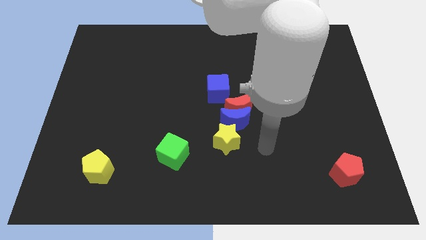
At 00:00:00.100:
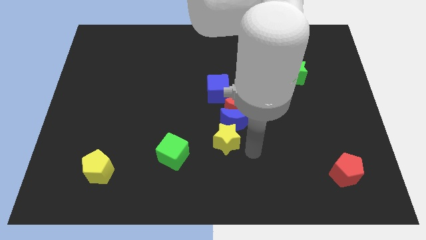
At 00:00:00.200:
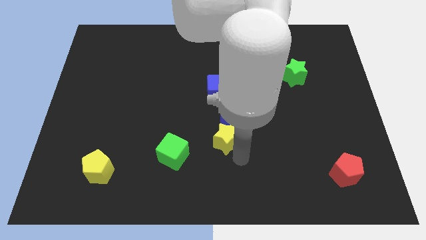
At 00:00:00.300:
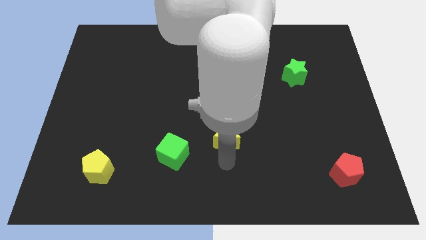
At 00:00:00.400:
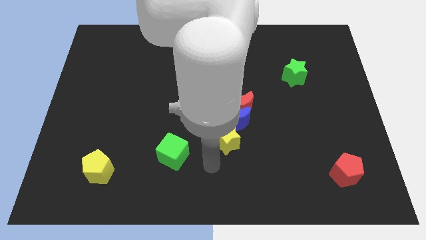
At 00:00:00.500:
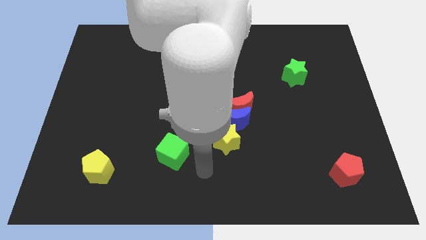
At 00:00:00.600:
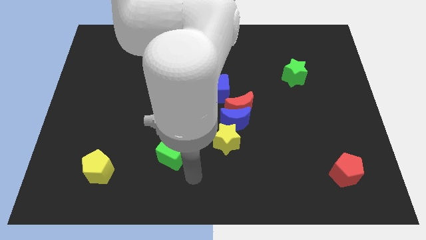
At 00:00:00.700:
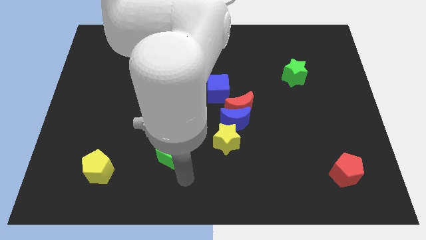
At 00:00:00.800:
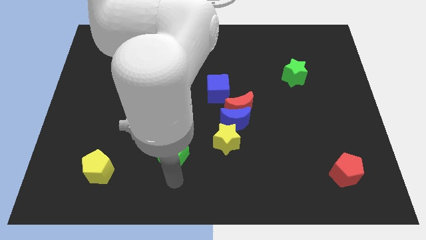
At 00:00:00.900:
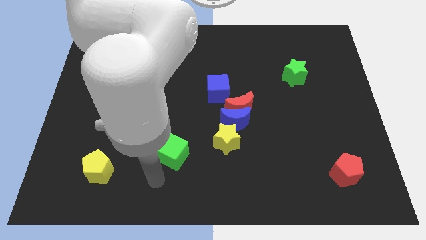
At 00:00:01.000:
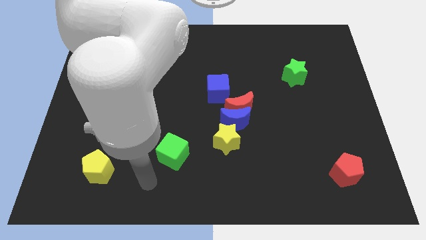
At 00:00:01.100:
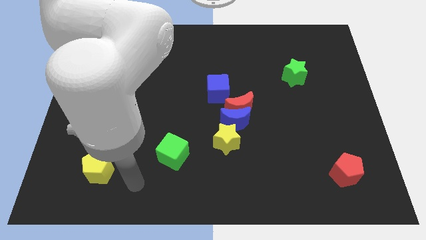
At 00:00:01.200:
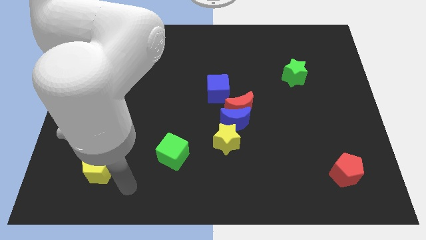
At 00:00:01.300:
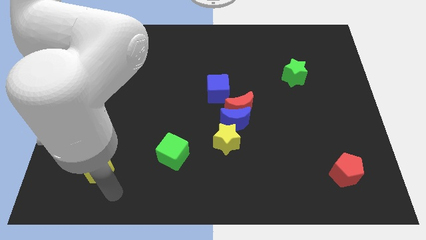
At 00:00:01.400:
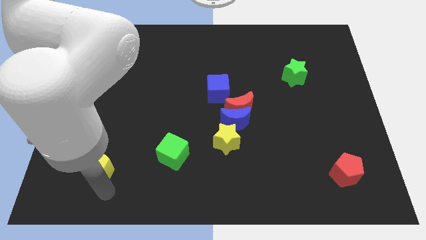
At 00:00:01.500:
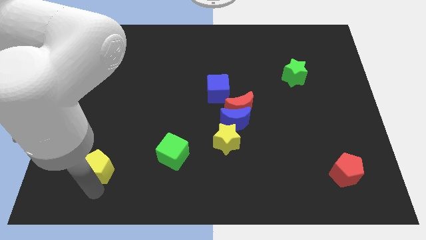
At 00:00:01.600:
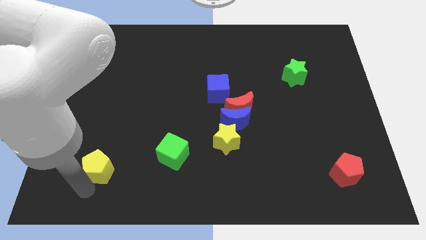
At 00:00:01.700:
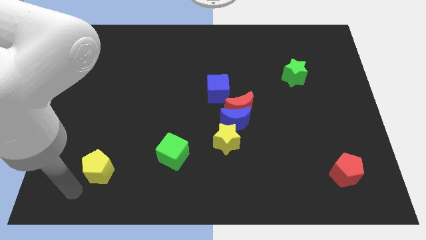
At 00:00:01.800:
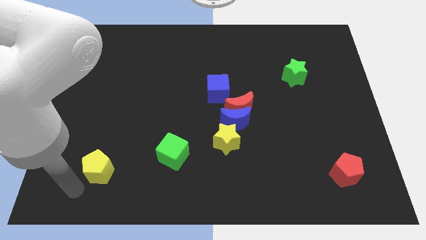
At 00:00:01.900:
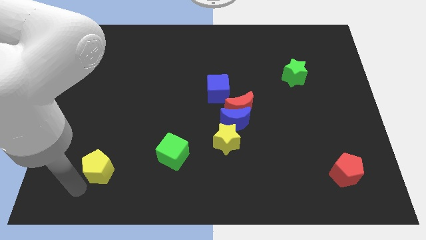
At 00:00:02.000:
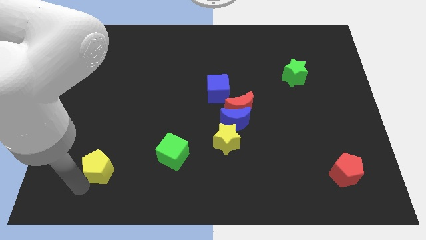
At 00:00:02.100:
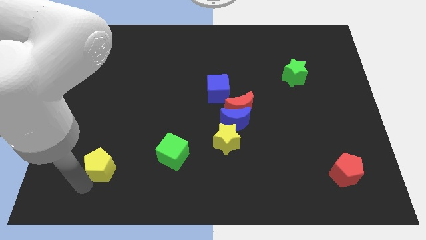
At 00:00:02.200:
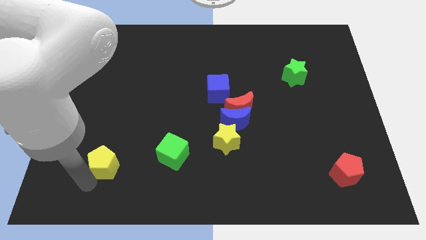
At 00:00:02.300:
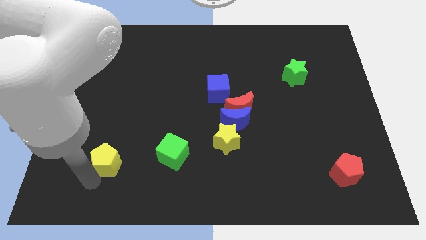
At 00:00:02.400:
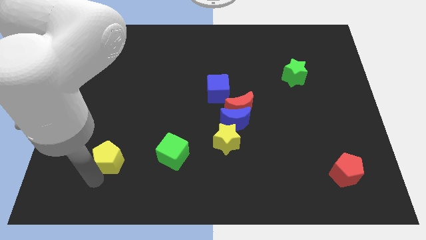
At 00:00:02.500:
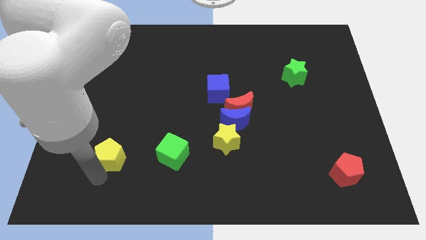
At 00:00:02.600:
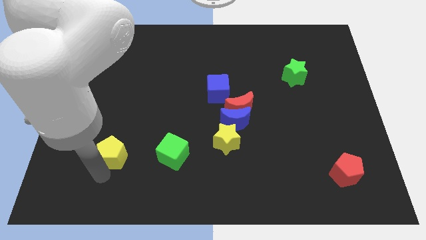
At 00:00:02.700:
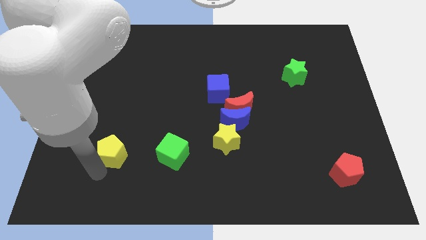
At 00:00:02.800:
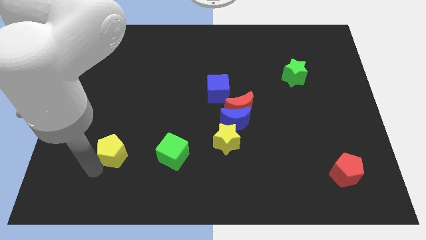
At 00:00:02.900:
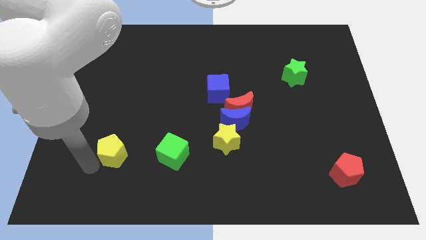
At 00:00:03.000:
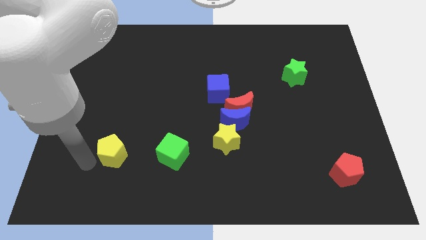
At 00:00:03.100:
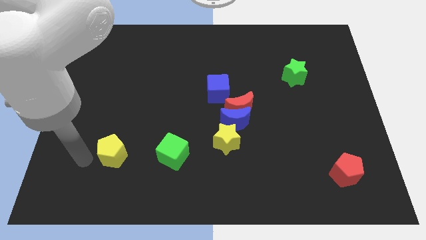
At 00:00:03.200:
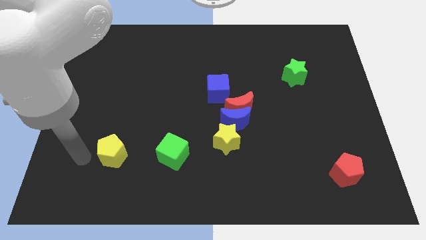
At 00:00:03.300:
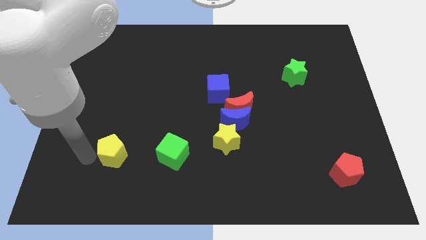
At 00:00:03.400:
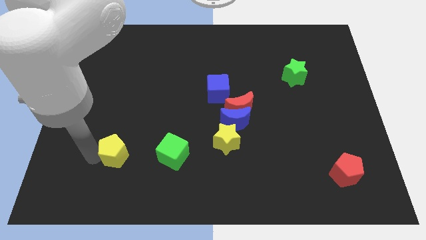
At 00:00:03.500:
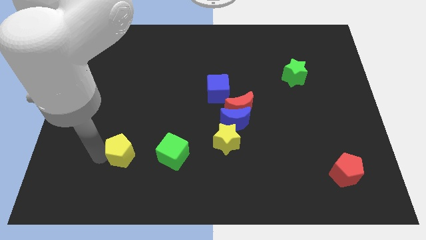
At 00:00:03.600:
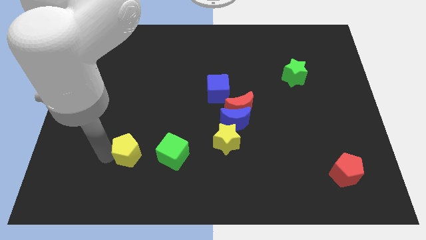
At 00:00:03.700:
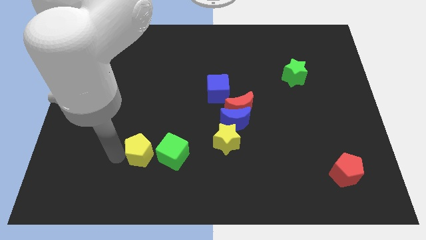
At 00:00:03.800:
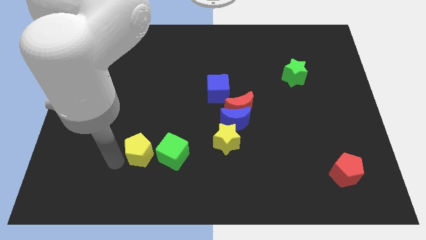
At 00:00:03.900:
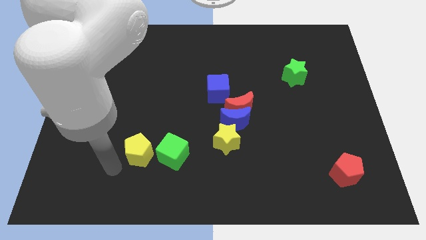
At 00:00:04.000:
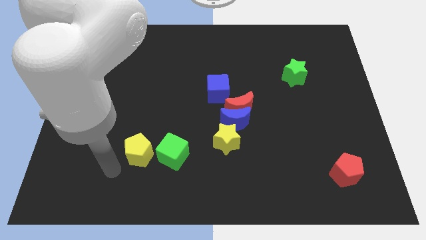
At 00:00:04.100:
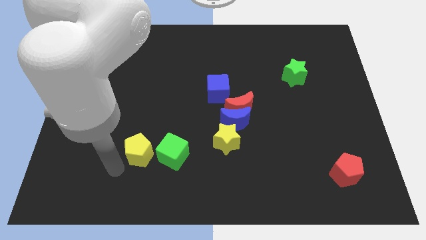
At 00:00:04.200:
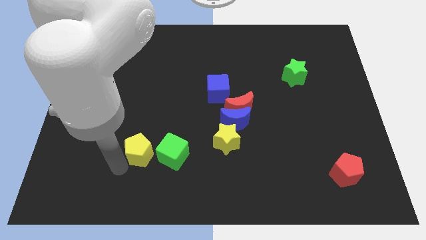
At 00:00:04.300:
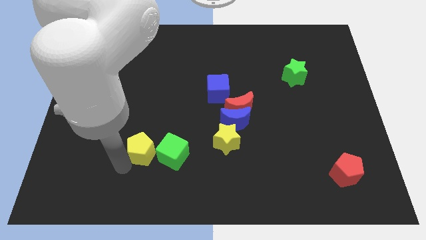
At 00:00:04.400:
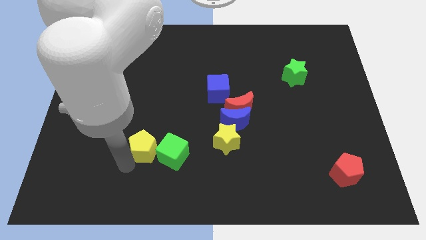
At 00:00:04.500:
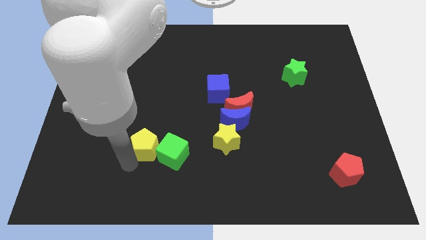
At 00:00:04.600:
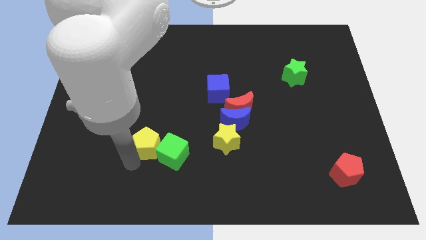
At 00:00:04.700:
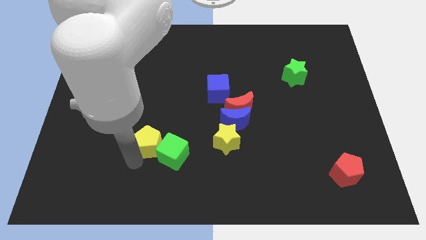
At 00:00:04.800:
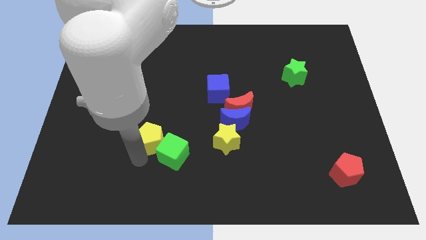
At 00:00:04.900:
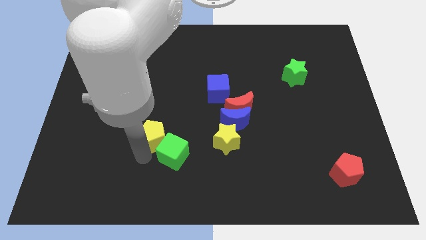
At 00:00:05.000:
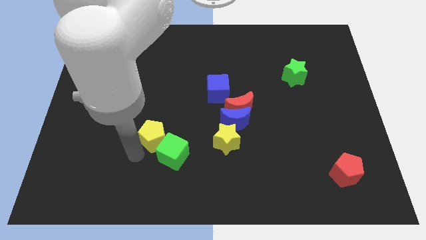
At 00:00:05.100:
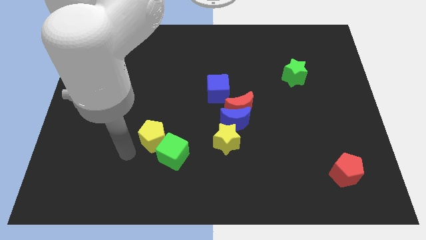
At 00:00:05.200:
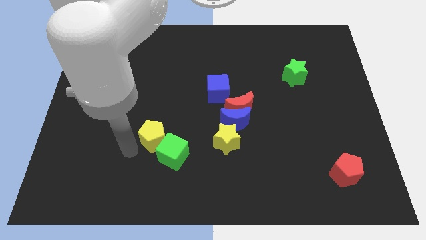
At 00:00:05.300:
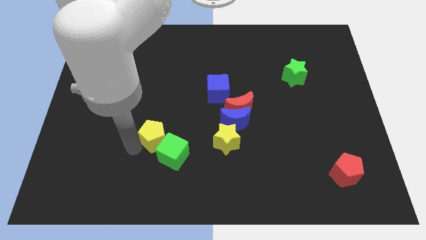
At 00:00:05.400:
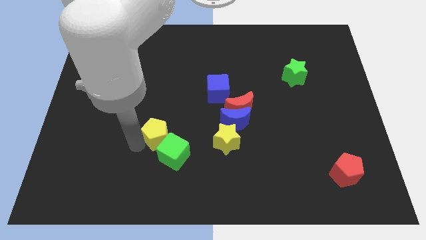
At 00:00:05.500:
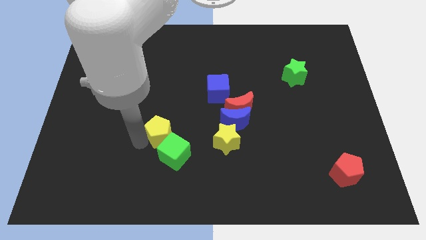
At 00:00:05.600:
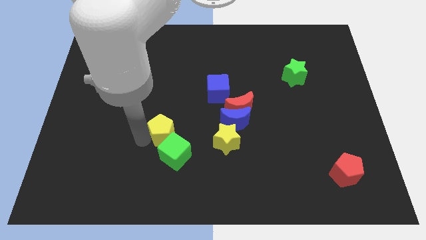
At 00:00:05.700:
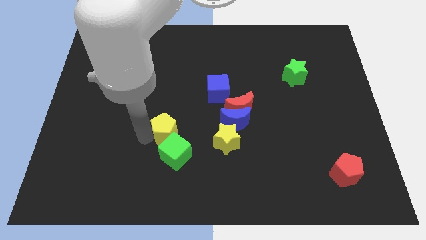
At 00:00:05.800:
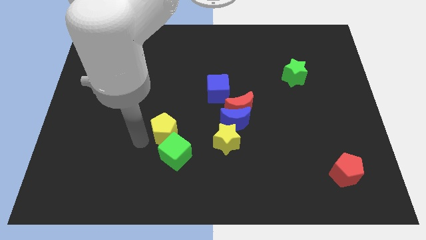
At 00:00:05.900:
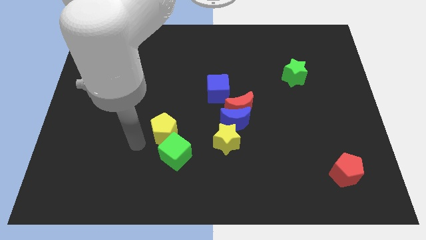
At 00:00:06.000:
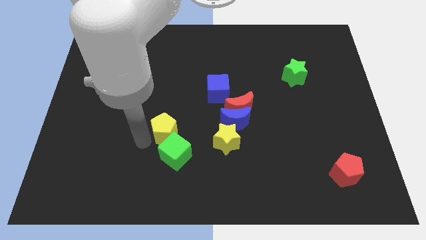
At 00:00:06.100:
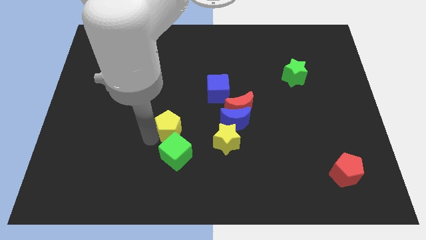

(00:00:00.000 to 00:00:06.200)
slide the yellow pentagon left of the blue moon

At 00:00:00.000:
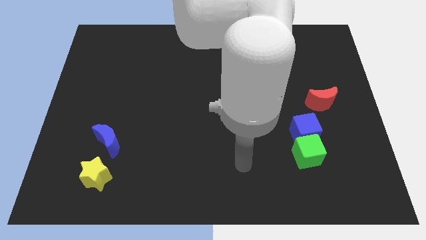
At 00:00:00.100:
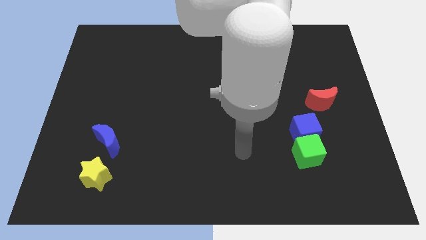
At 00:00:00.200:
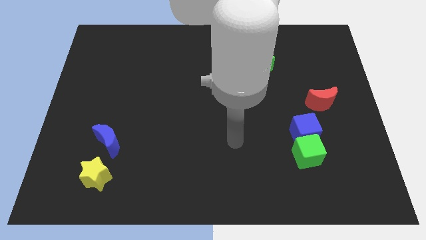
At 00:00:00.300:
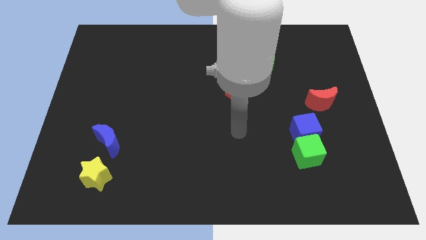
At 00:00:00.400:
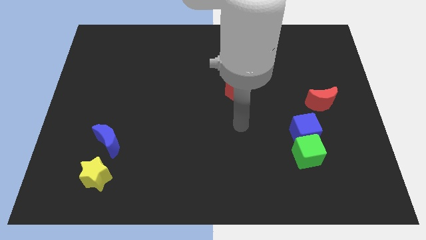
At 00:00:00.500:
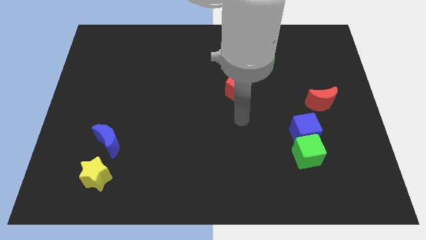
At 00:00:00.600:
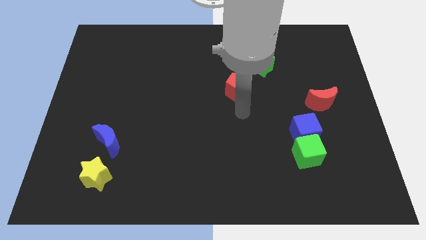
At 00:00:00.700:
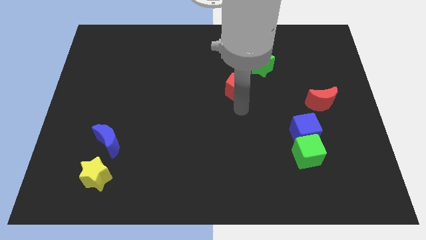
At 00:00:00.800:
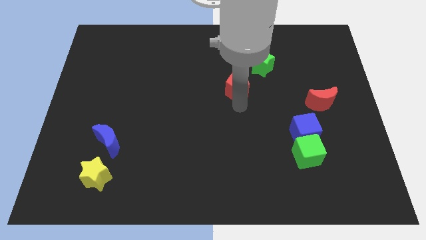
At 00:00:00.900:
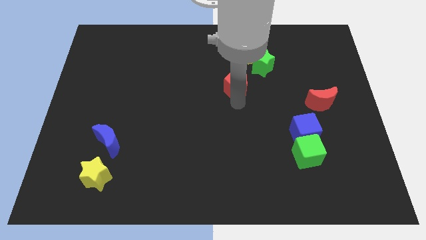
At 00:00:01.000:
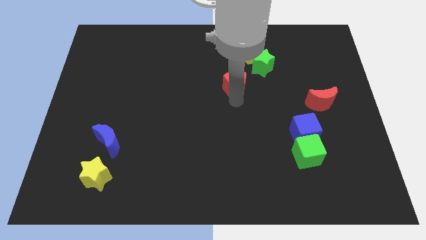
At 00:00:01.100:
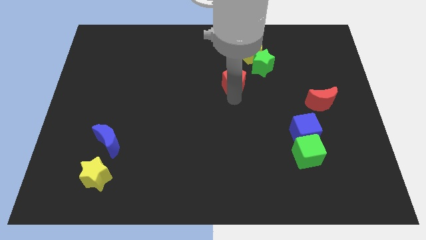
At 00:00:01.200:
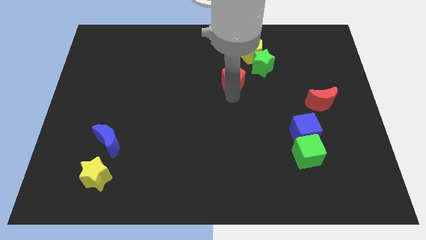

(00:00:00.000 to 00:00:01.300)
move the red pentagon diagonally down and to the left of the yellow pentagon

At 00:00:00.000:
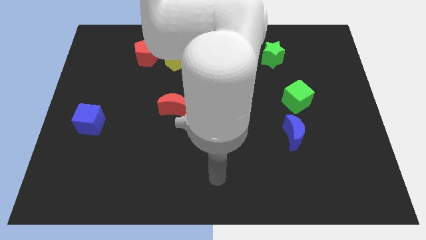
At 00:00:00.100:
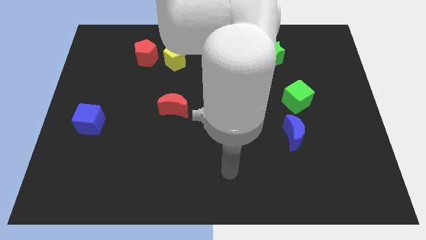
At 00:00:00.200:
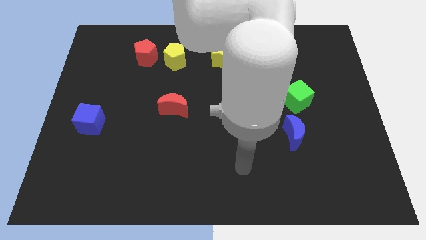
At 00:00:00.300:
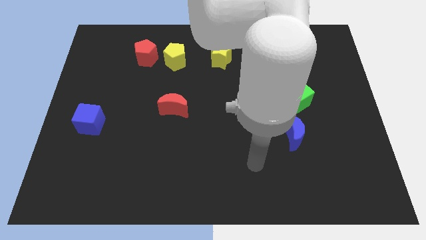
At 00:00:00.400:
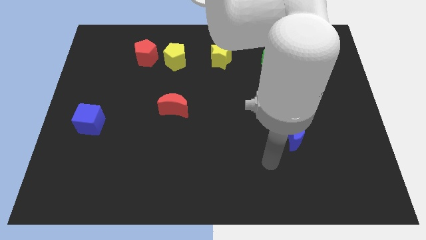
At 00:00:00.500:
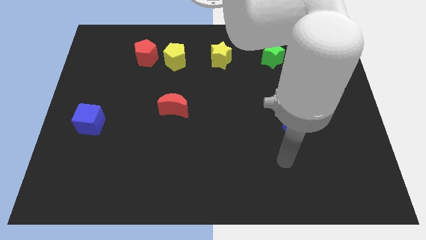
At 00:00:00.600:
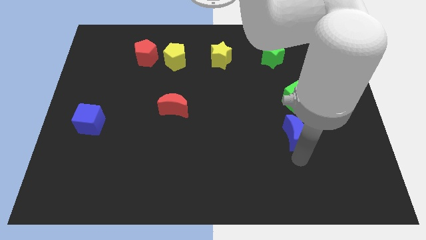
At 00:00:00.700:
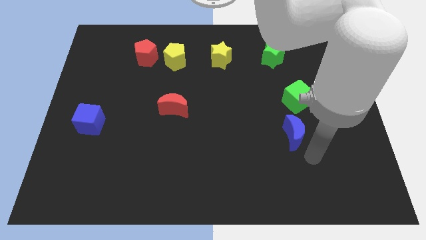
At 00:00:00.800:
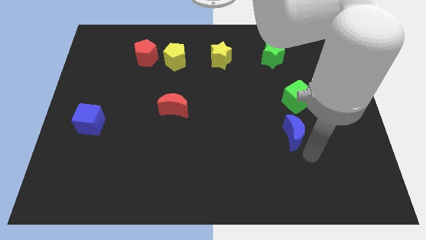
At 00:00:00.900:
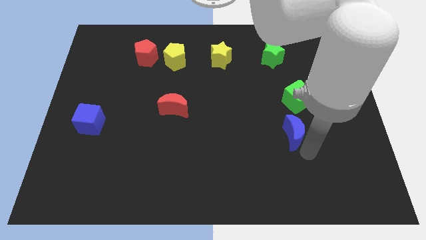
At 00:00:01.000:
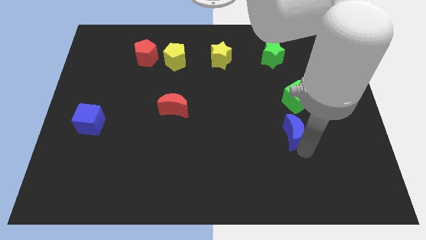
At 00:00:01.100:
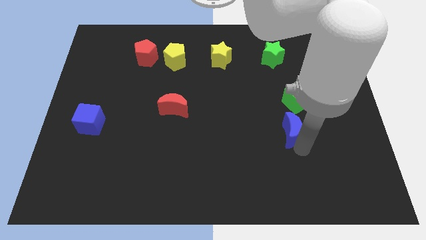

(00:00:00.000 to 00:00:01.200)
move the blue moon to the bottom left of the green cube
